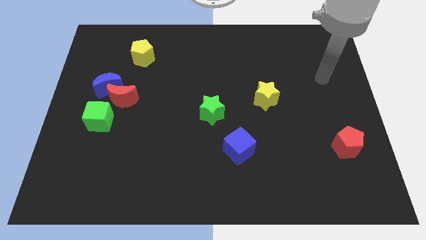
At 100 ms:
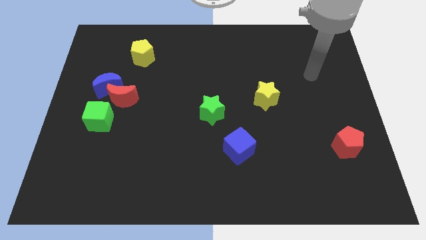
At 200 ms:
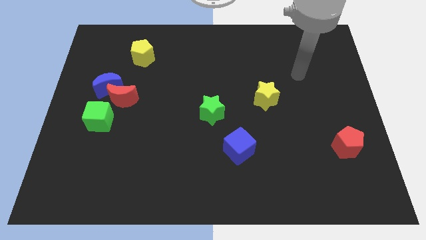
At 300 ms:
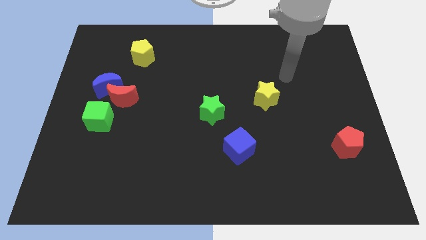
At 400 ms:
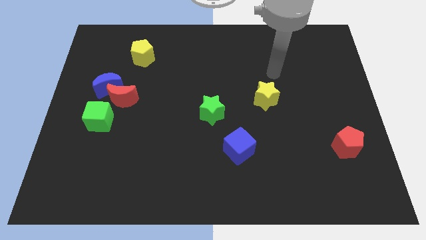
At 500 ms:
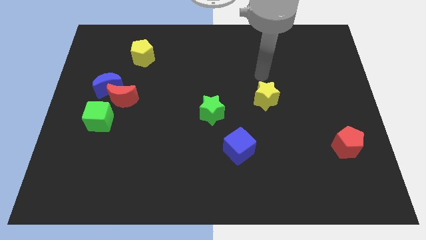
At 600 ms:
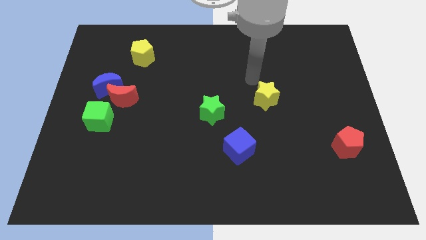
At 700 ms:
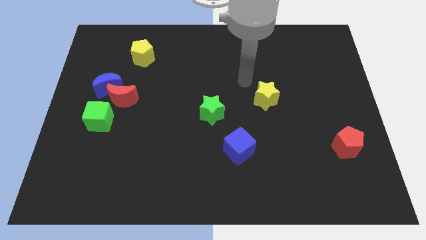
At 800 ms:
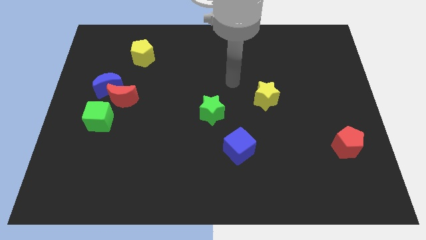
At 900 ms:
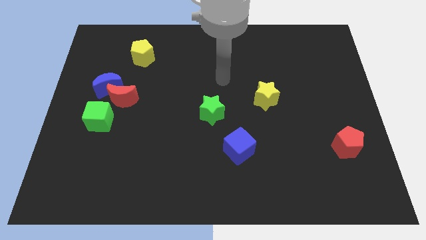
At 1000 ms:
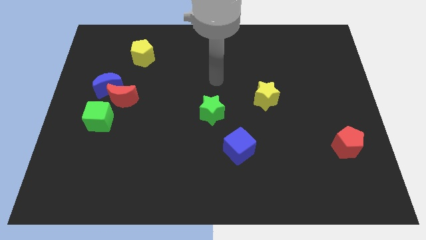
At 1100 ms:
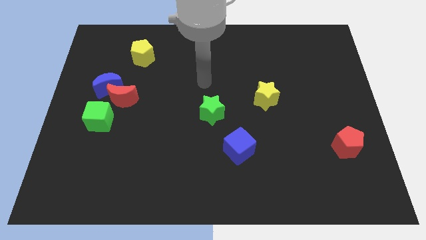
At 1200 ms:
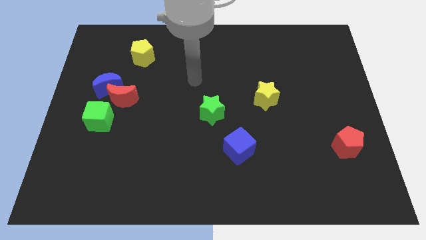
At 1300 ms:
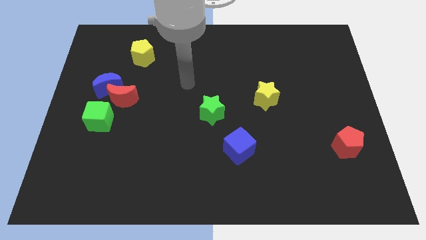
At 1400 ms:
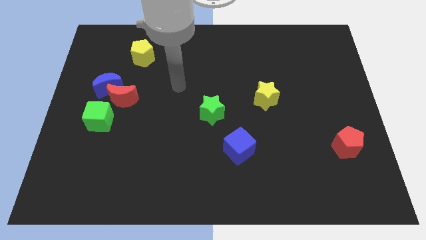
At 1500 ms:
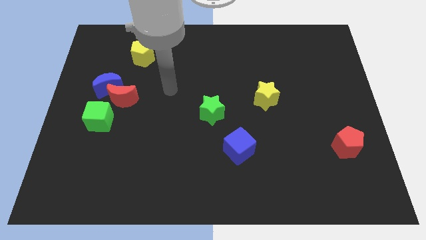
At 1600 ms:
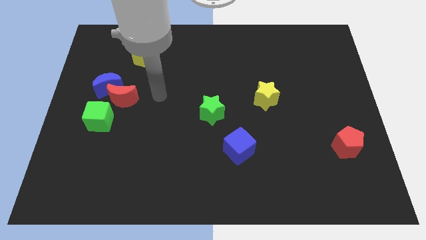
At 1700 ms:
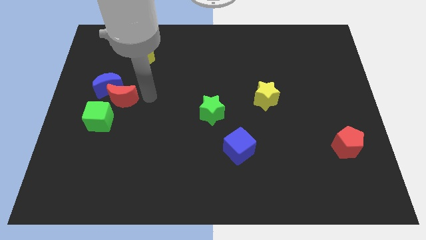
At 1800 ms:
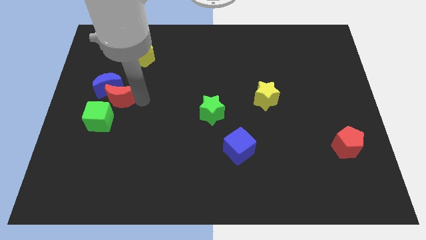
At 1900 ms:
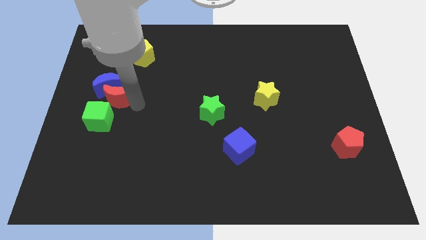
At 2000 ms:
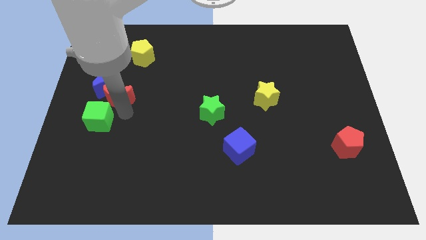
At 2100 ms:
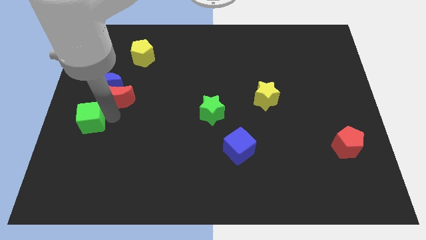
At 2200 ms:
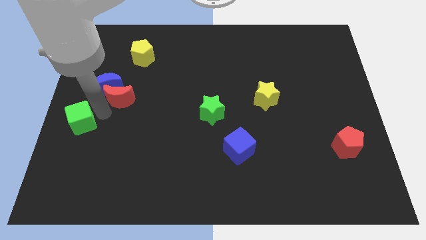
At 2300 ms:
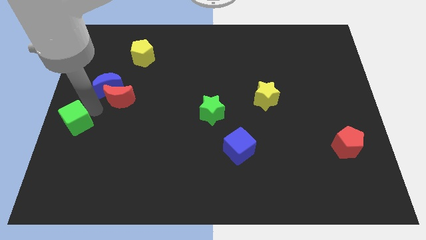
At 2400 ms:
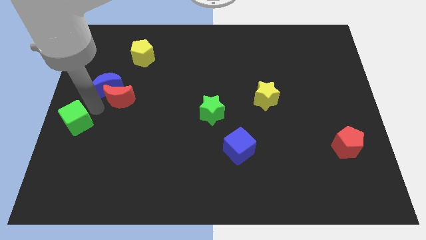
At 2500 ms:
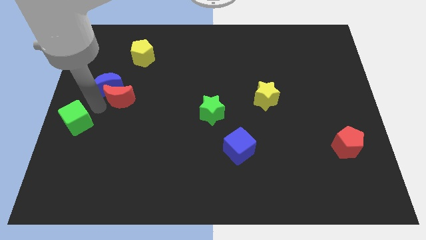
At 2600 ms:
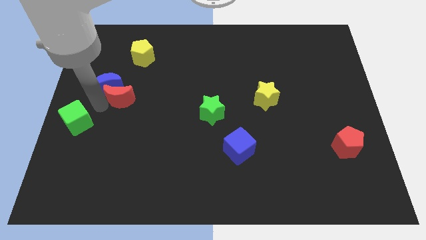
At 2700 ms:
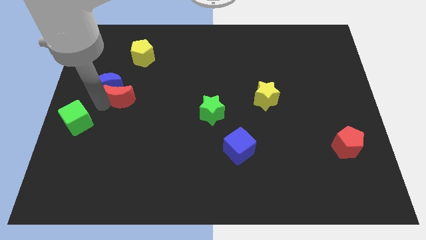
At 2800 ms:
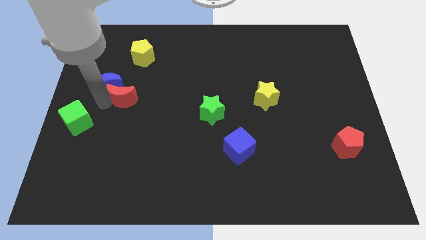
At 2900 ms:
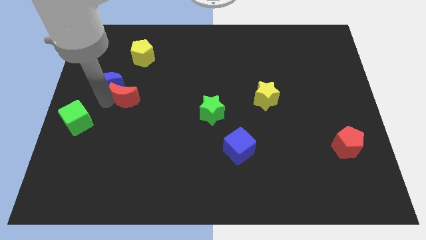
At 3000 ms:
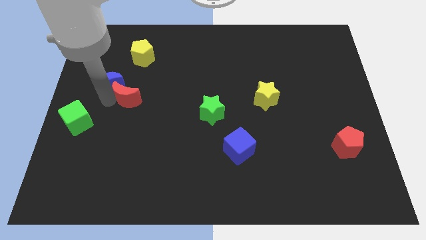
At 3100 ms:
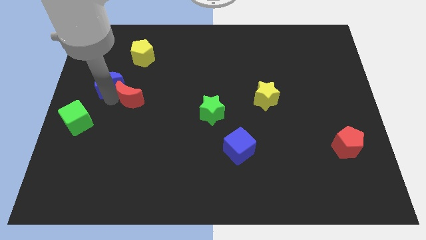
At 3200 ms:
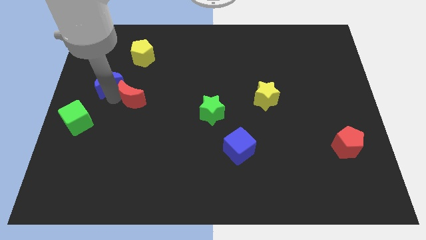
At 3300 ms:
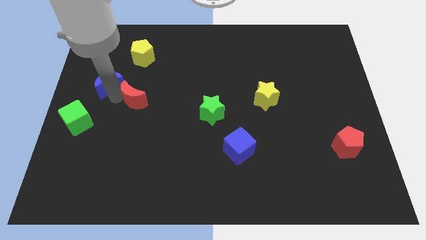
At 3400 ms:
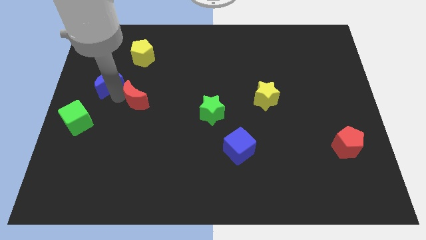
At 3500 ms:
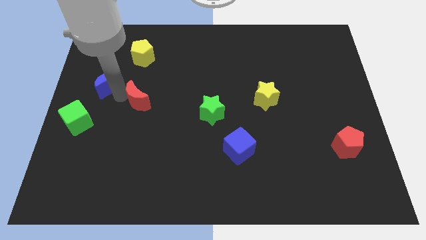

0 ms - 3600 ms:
pull the red moon apart from the blue moon and green cube

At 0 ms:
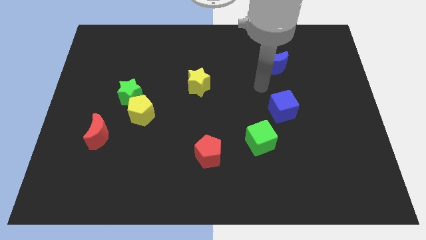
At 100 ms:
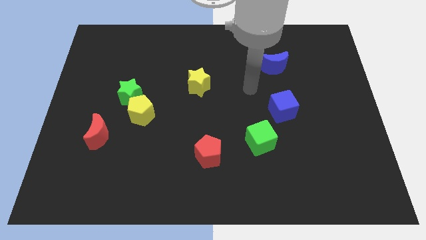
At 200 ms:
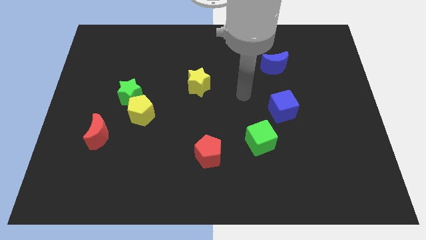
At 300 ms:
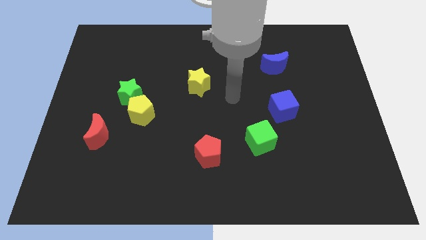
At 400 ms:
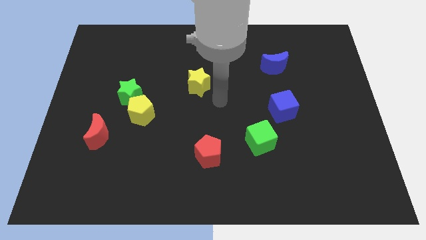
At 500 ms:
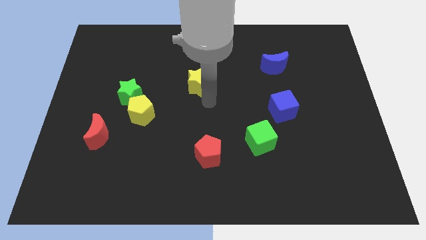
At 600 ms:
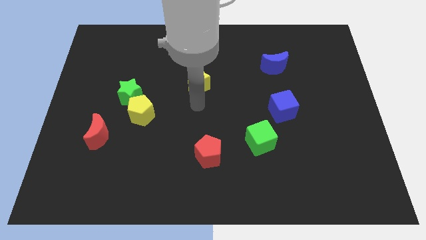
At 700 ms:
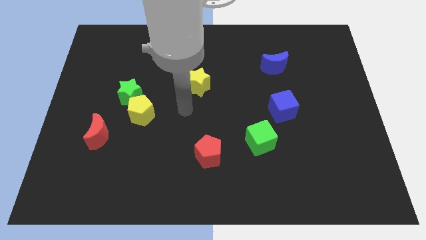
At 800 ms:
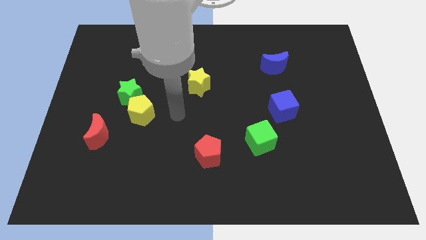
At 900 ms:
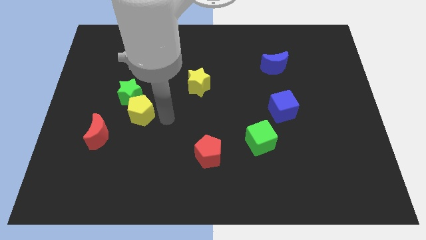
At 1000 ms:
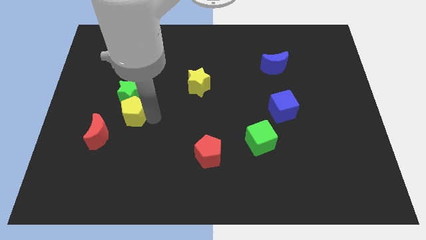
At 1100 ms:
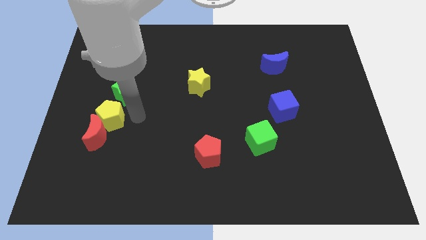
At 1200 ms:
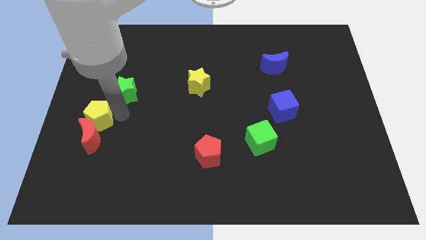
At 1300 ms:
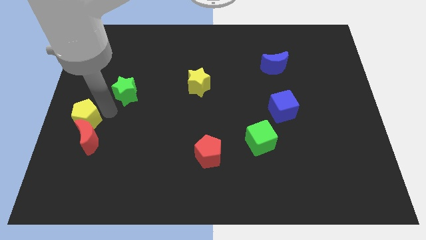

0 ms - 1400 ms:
separate the green star from the yellow pentagon

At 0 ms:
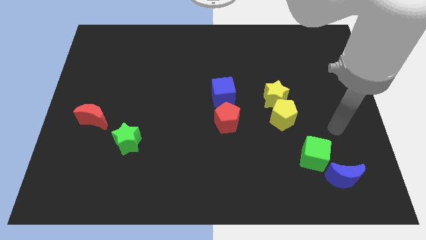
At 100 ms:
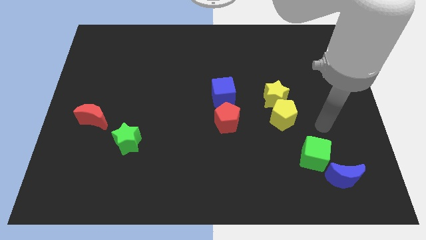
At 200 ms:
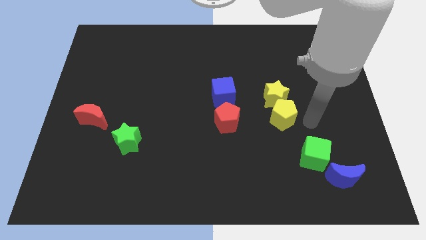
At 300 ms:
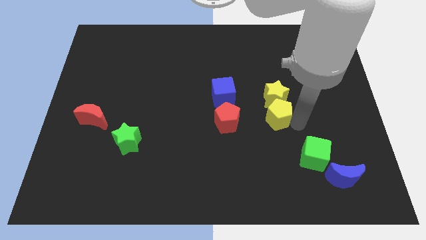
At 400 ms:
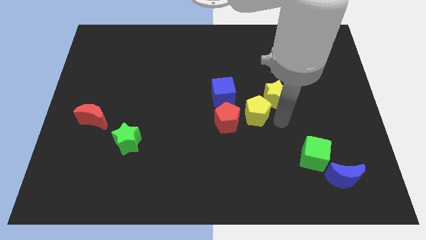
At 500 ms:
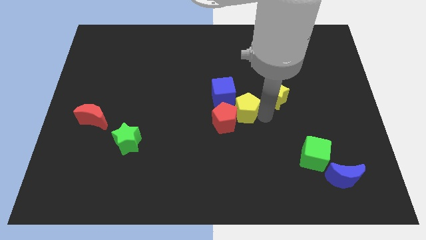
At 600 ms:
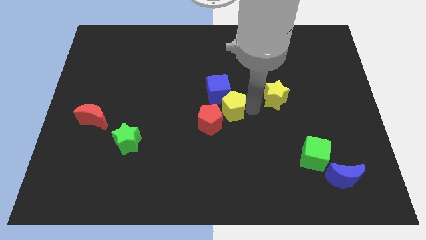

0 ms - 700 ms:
pull the yellow star apart from the yellow pentagon

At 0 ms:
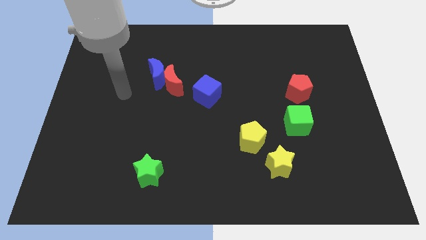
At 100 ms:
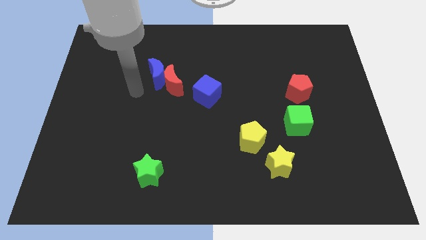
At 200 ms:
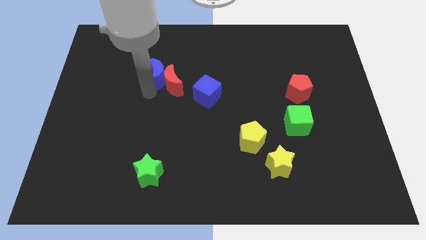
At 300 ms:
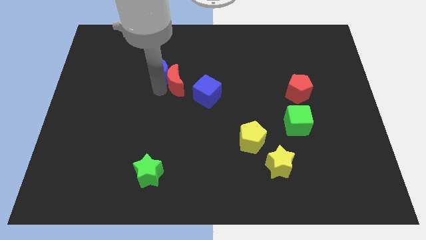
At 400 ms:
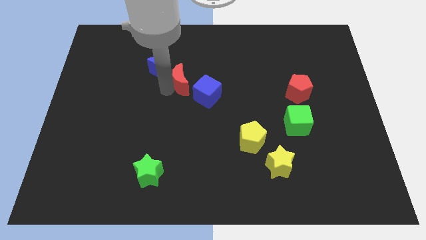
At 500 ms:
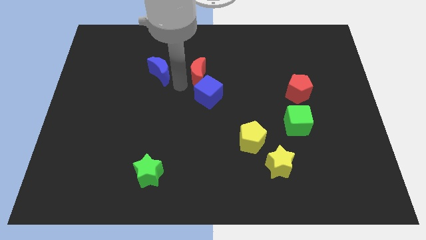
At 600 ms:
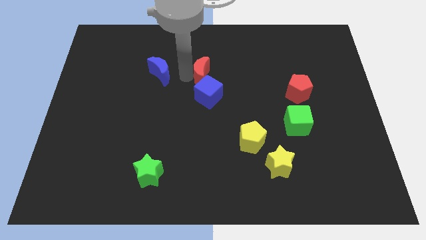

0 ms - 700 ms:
separate the blue moon from the red moon

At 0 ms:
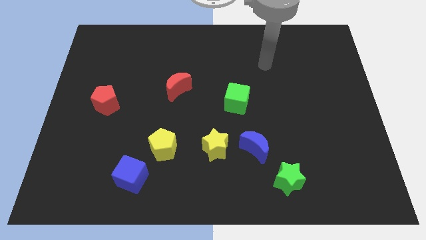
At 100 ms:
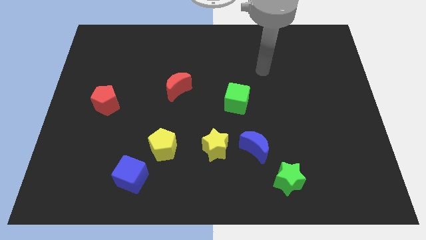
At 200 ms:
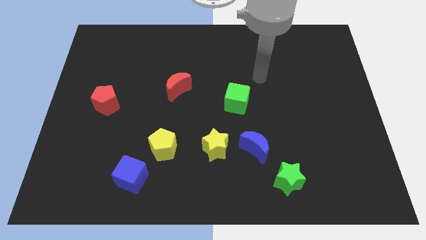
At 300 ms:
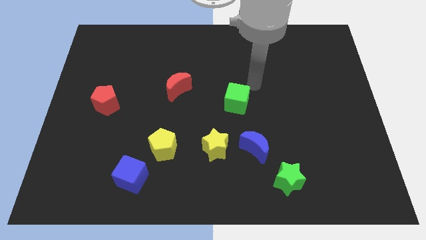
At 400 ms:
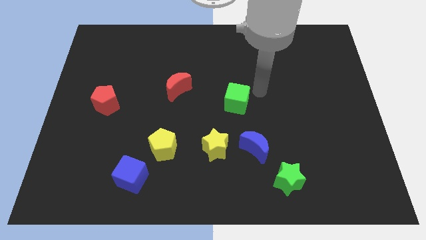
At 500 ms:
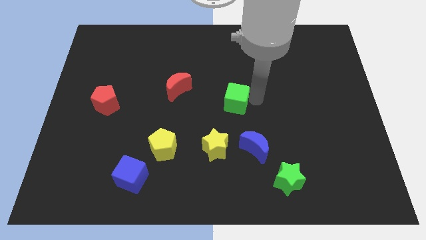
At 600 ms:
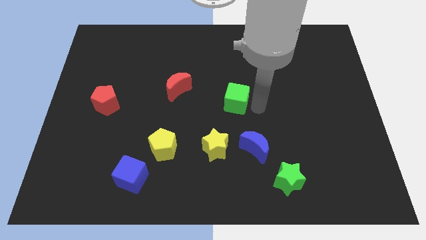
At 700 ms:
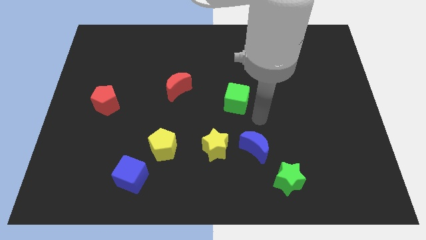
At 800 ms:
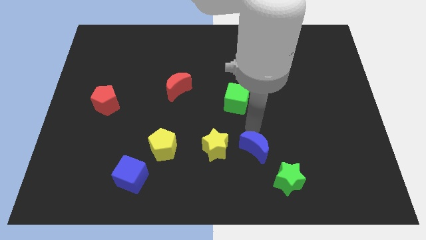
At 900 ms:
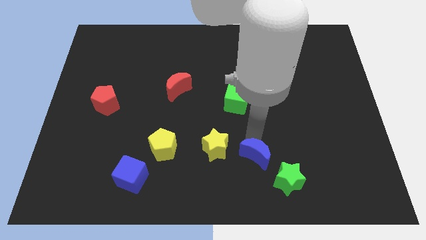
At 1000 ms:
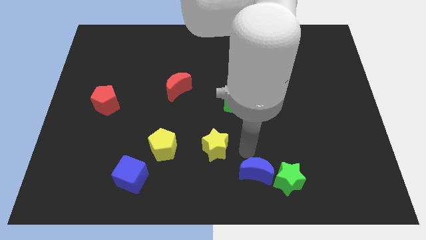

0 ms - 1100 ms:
separate the yellow star from the blue moon

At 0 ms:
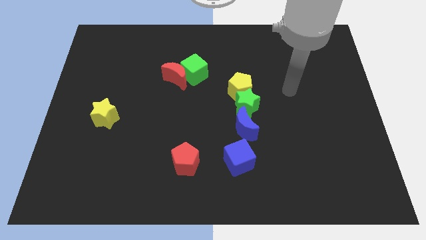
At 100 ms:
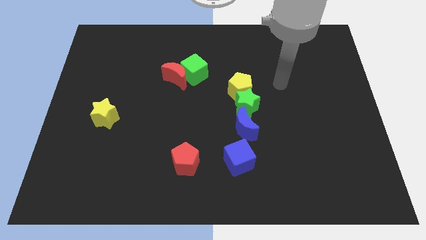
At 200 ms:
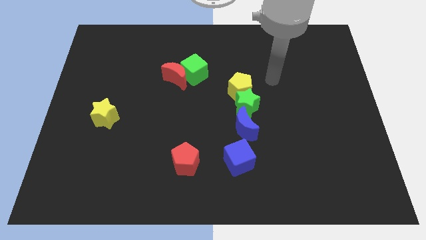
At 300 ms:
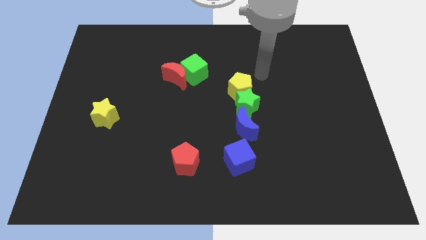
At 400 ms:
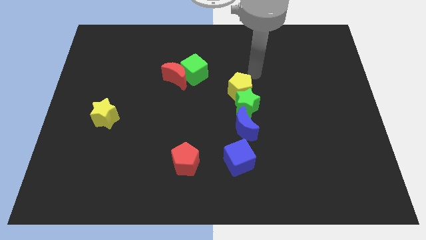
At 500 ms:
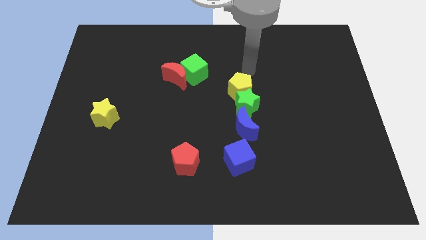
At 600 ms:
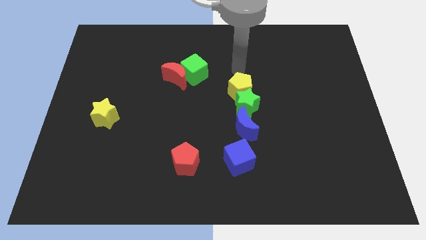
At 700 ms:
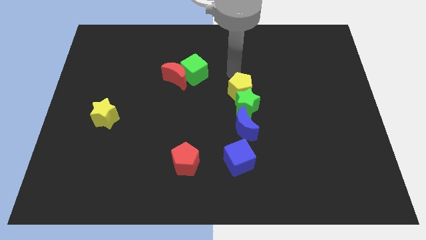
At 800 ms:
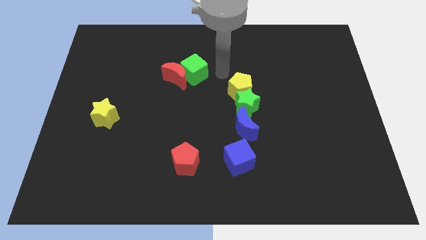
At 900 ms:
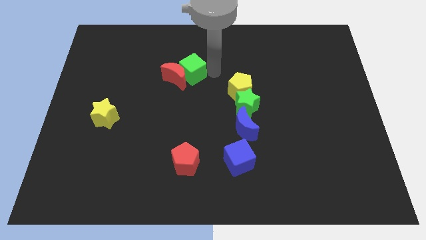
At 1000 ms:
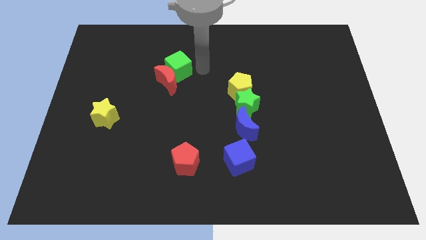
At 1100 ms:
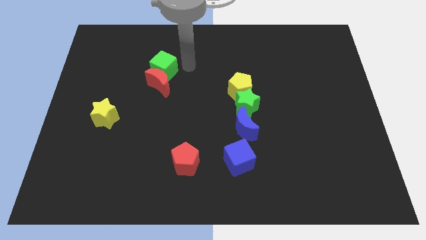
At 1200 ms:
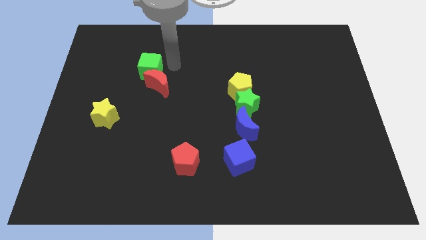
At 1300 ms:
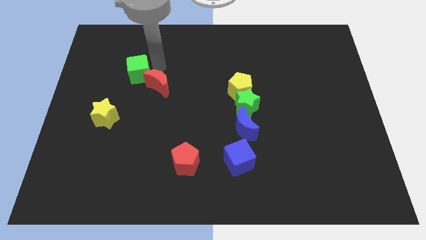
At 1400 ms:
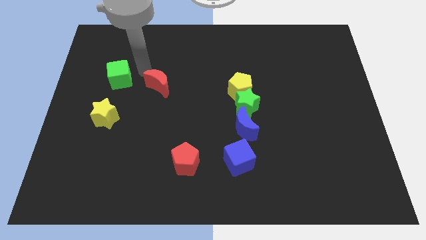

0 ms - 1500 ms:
separate the red moon from the green cube

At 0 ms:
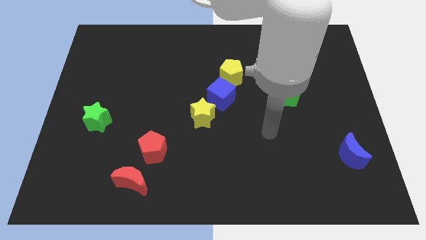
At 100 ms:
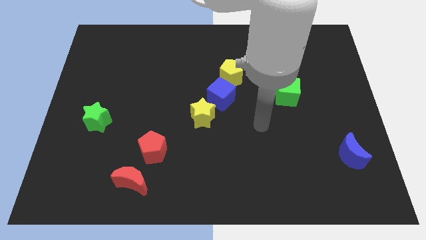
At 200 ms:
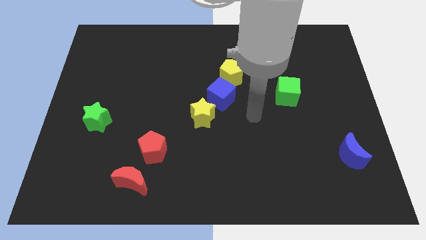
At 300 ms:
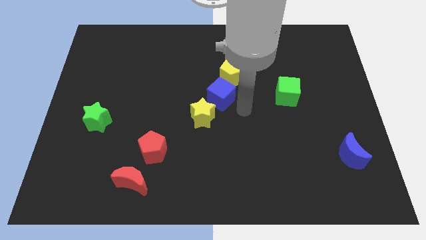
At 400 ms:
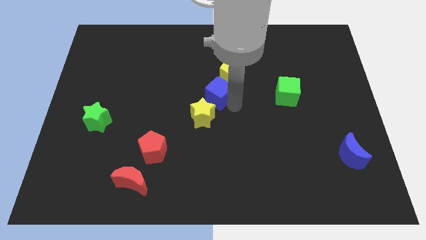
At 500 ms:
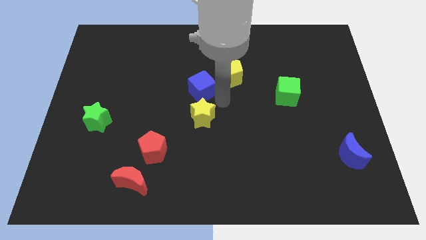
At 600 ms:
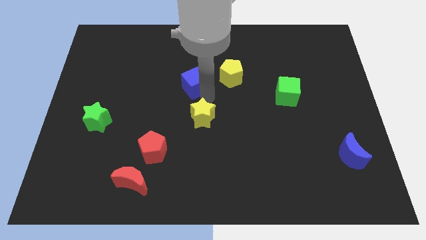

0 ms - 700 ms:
pull the yellow star apart from the blue cube
